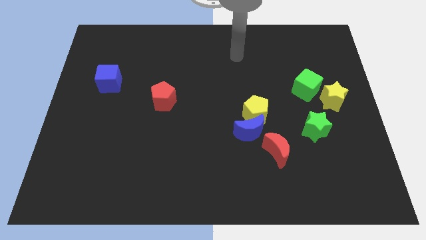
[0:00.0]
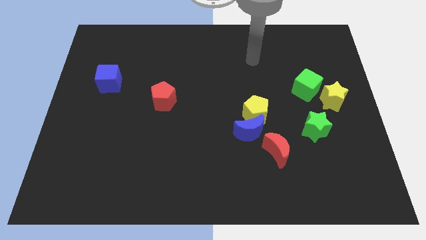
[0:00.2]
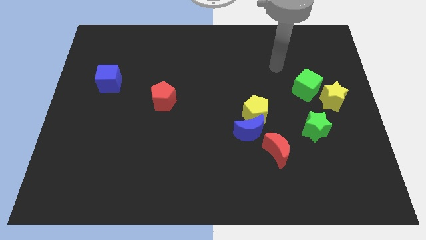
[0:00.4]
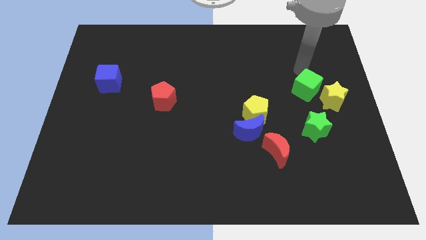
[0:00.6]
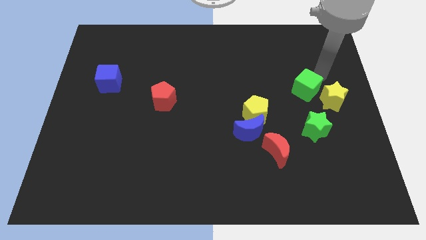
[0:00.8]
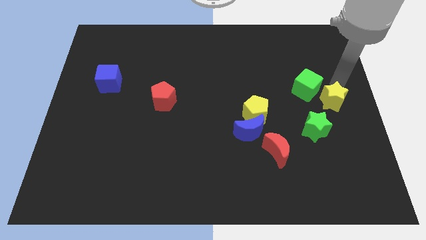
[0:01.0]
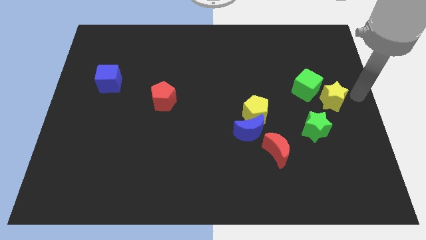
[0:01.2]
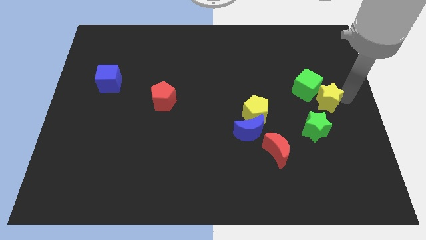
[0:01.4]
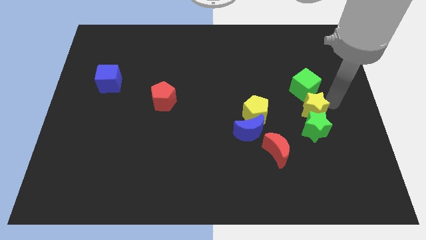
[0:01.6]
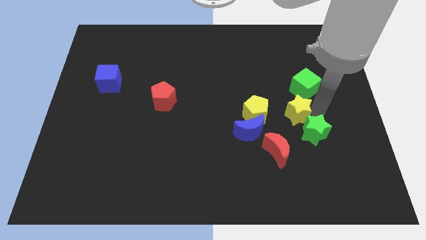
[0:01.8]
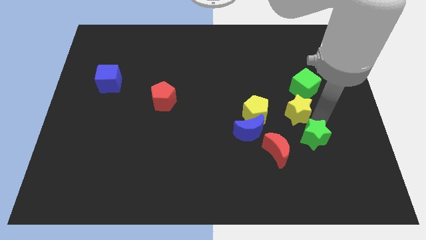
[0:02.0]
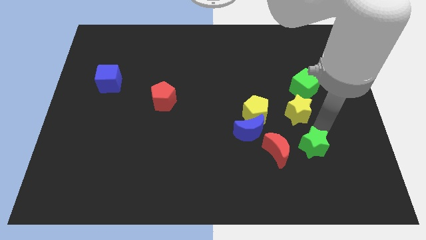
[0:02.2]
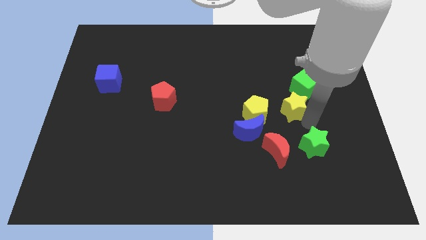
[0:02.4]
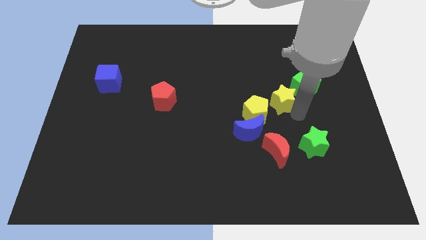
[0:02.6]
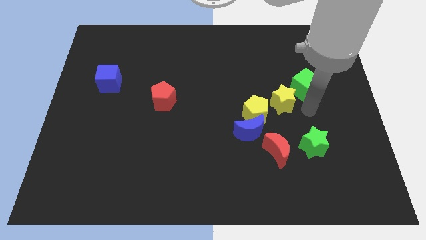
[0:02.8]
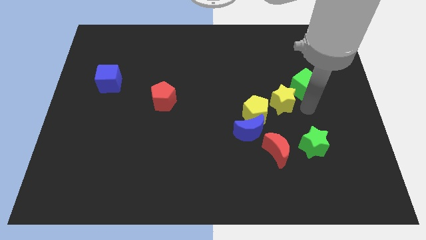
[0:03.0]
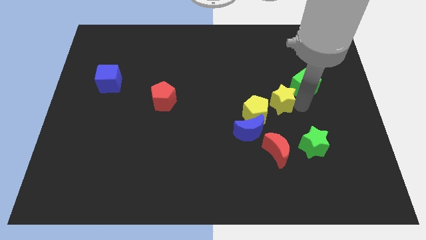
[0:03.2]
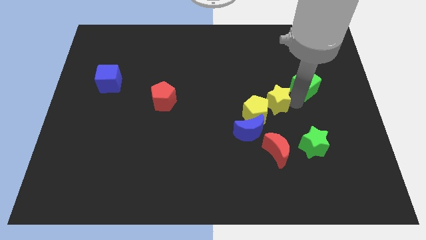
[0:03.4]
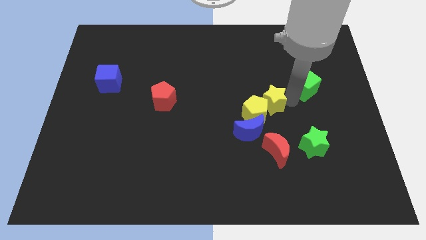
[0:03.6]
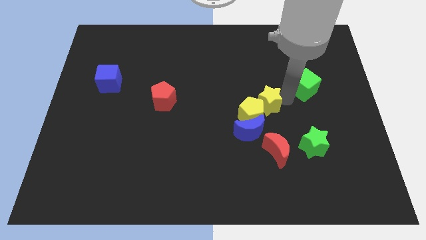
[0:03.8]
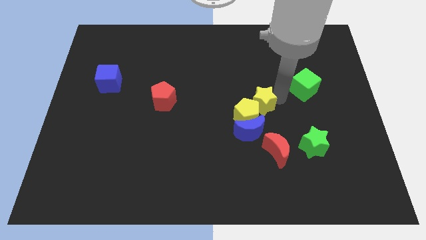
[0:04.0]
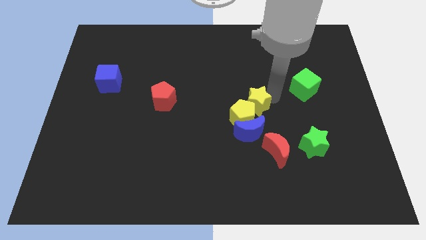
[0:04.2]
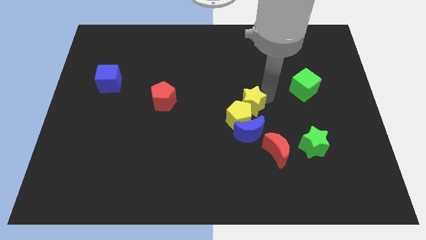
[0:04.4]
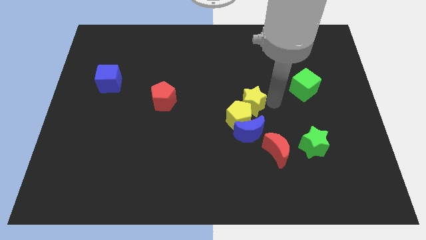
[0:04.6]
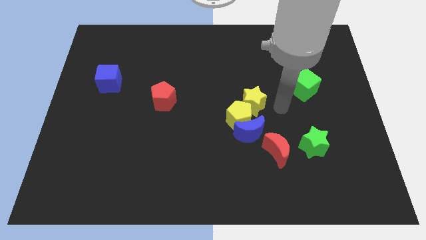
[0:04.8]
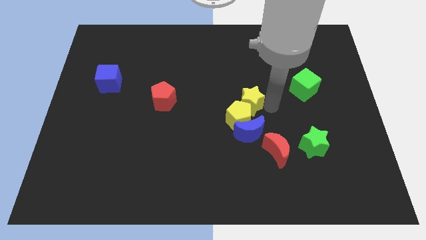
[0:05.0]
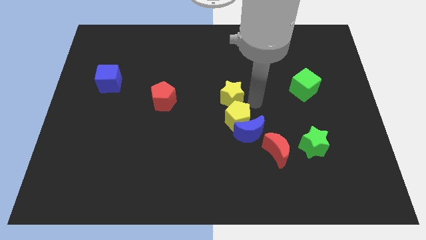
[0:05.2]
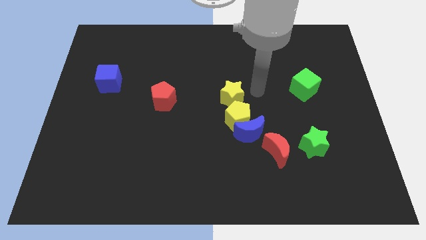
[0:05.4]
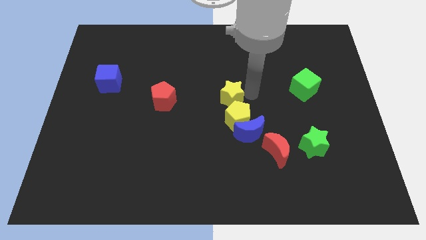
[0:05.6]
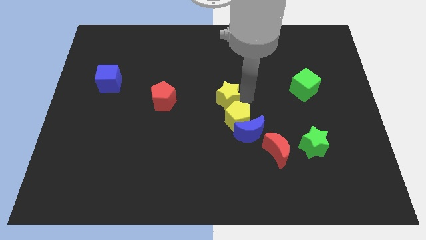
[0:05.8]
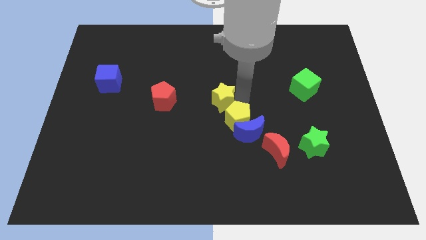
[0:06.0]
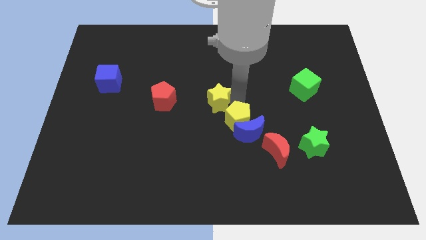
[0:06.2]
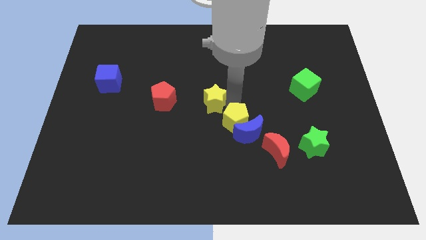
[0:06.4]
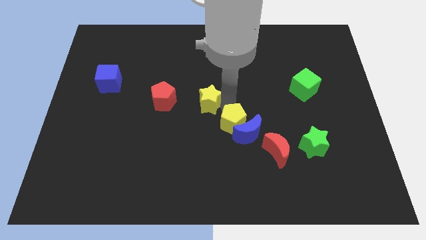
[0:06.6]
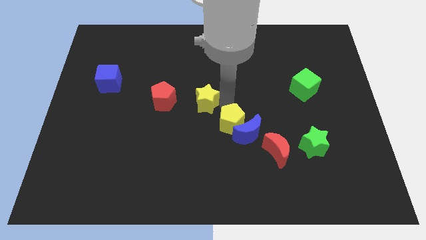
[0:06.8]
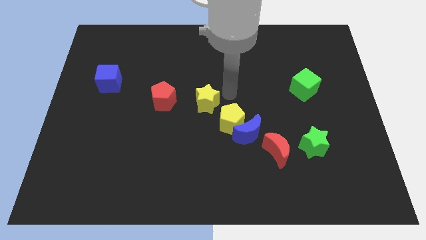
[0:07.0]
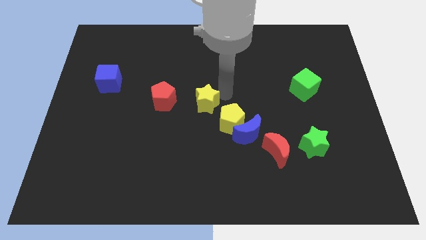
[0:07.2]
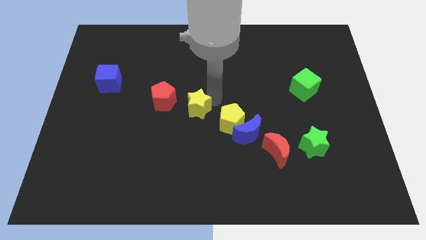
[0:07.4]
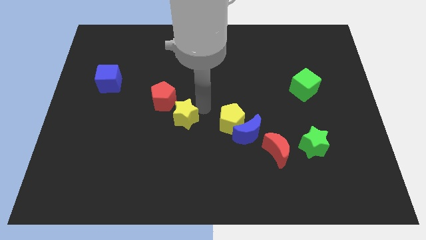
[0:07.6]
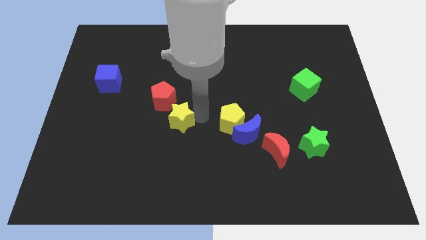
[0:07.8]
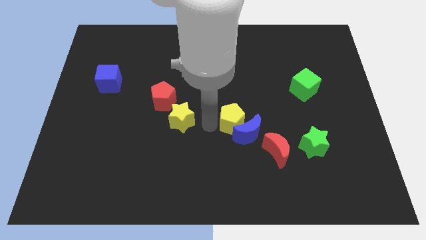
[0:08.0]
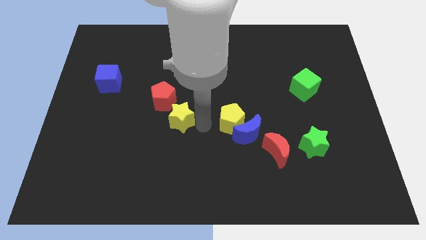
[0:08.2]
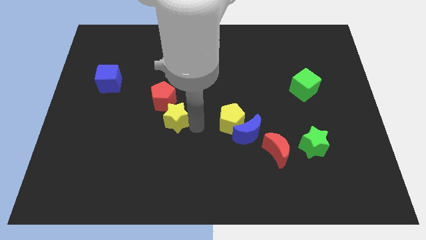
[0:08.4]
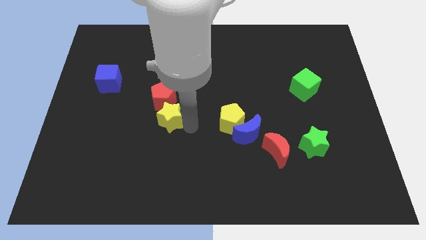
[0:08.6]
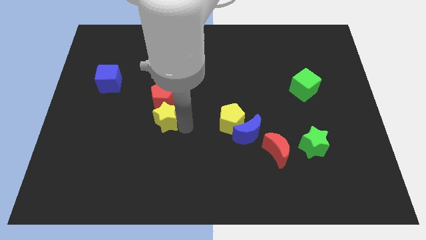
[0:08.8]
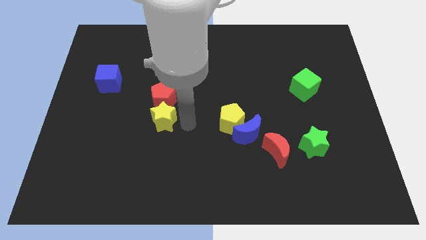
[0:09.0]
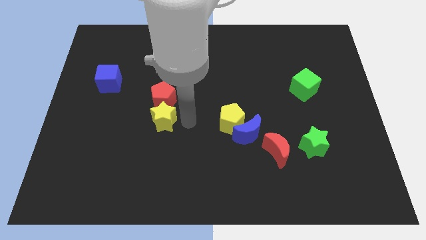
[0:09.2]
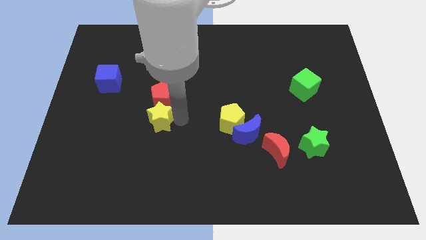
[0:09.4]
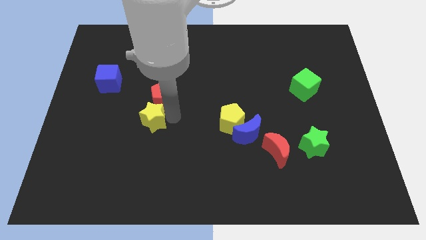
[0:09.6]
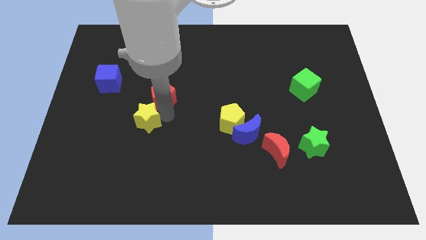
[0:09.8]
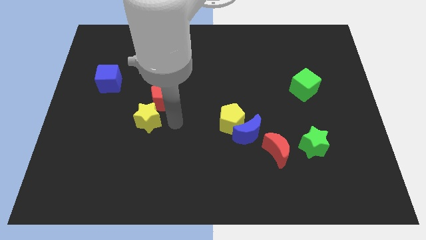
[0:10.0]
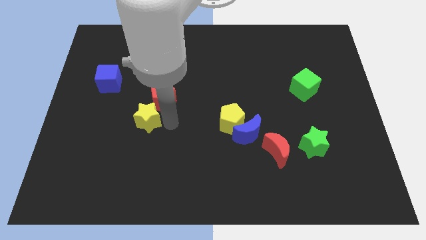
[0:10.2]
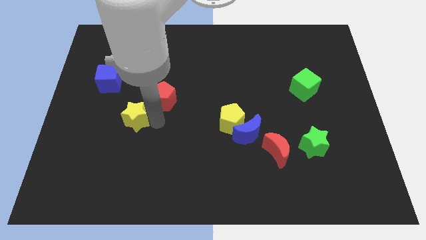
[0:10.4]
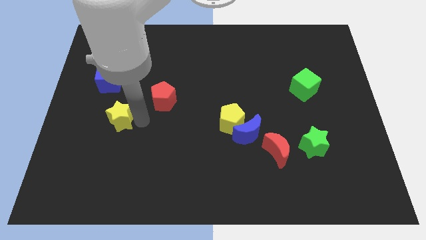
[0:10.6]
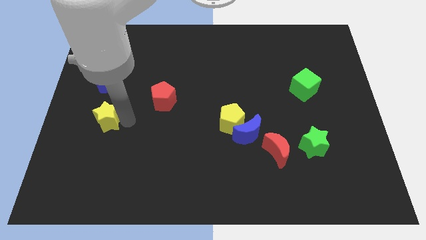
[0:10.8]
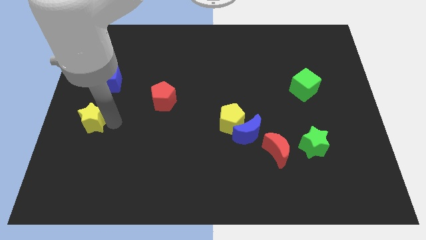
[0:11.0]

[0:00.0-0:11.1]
put the yellow star to the left side

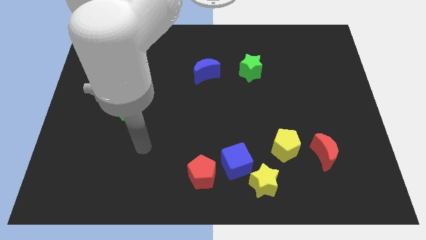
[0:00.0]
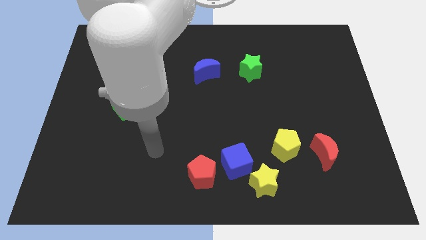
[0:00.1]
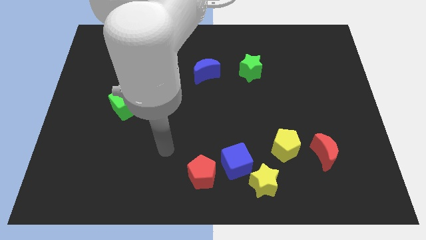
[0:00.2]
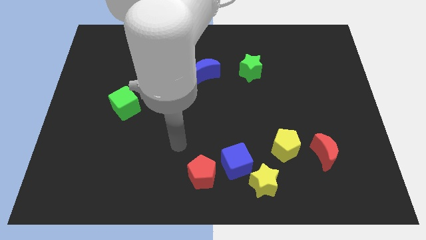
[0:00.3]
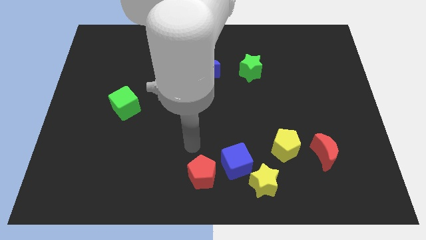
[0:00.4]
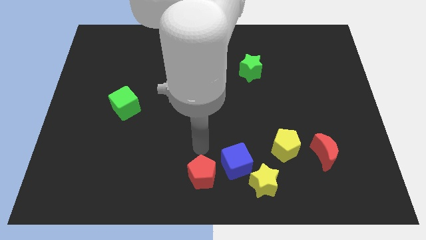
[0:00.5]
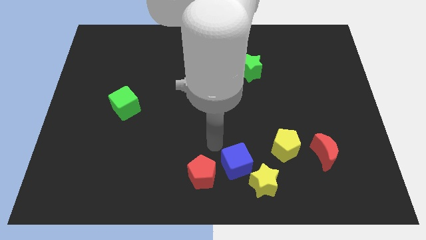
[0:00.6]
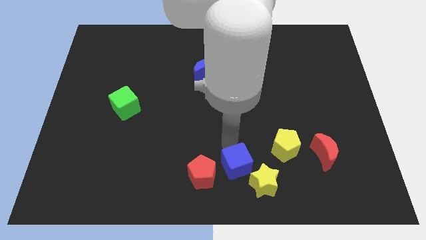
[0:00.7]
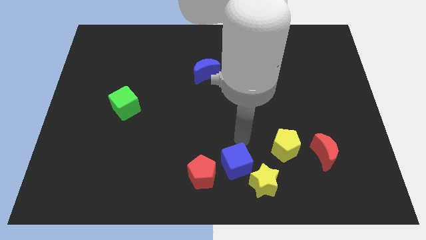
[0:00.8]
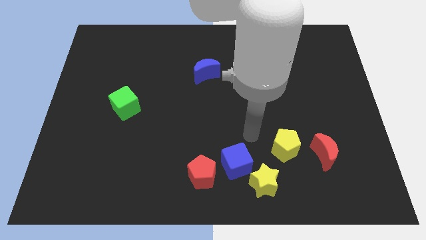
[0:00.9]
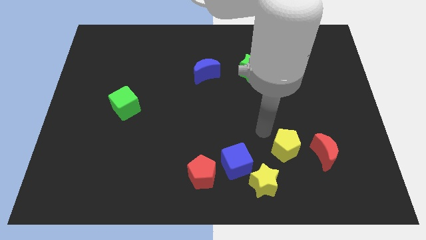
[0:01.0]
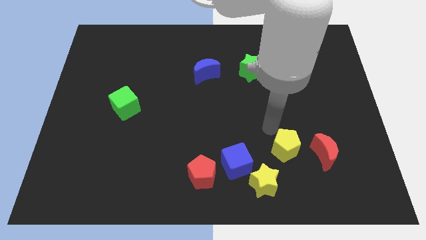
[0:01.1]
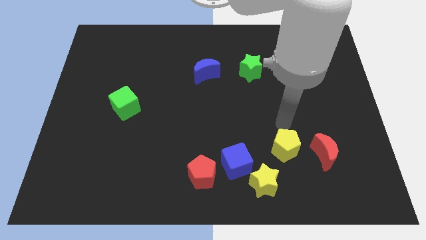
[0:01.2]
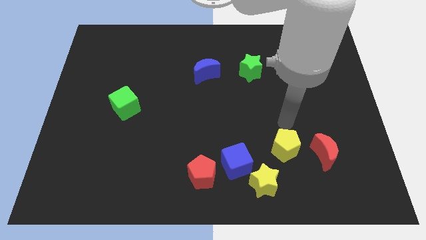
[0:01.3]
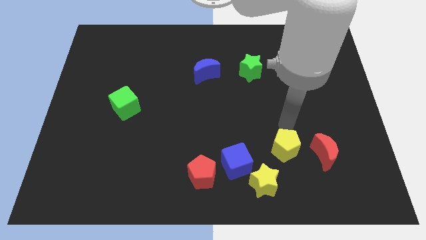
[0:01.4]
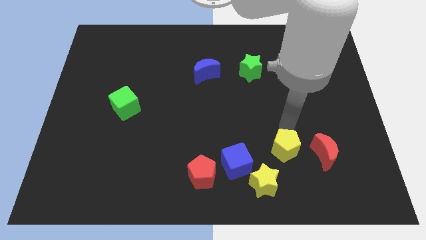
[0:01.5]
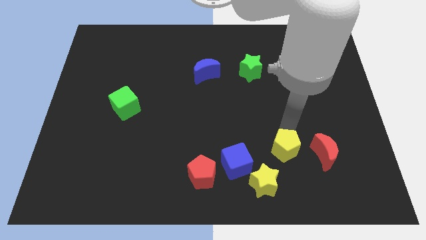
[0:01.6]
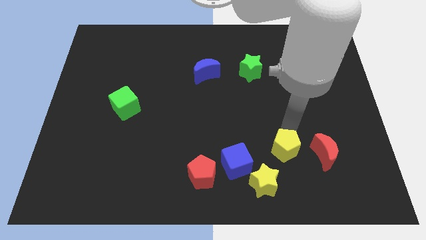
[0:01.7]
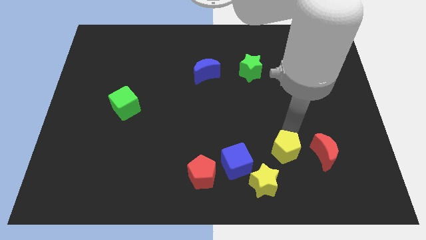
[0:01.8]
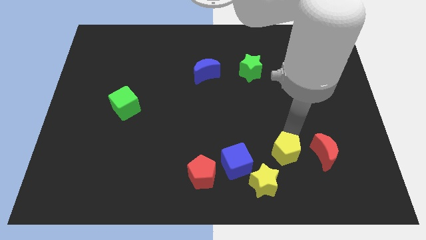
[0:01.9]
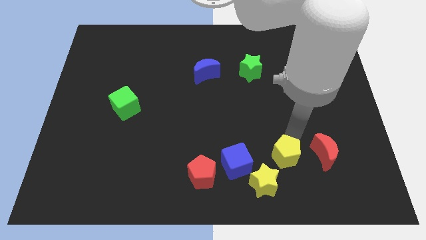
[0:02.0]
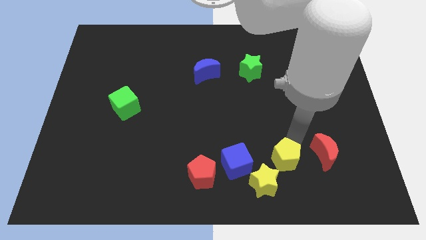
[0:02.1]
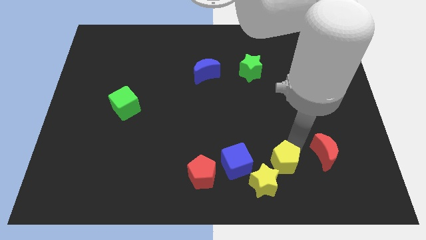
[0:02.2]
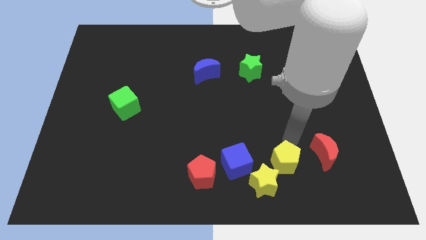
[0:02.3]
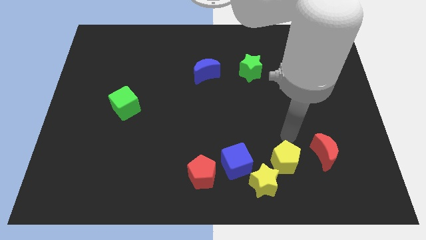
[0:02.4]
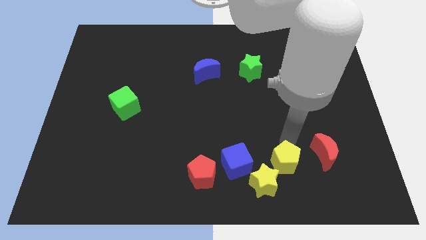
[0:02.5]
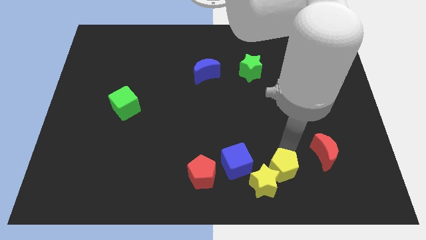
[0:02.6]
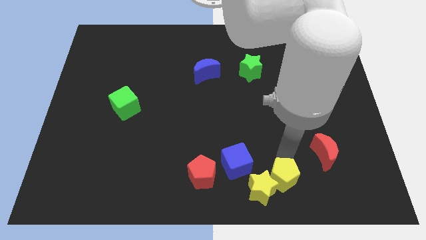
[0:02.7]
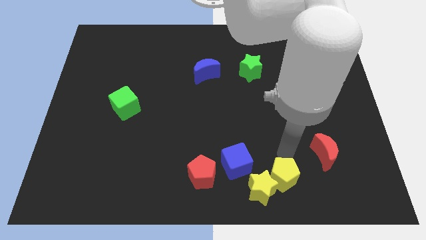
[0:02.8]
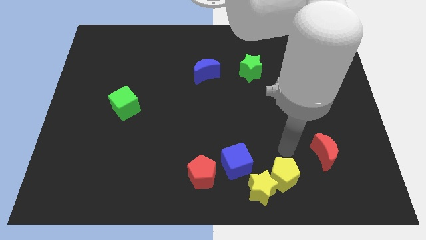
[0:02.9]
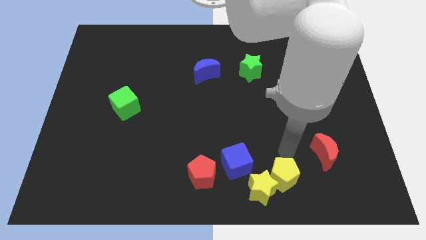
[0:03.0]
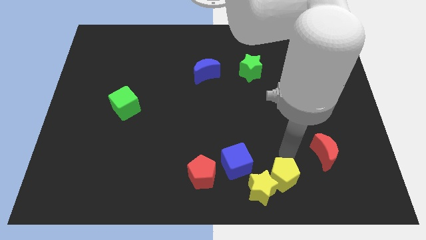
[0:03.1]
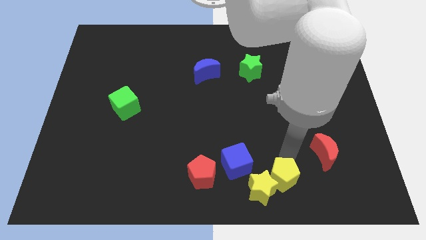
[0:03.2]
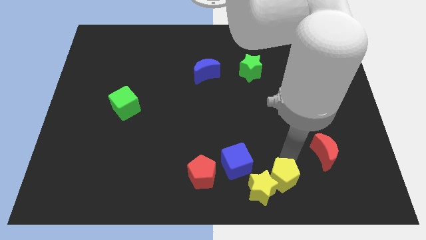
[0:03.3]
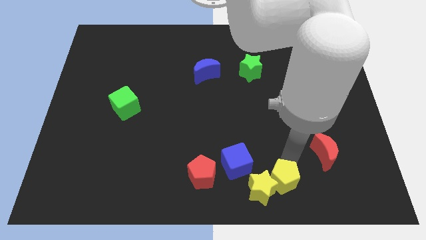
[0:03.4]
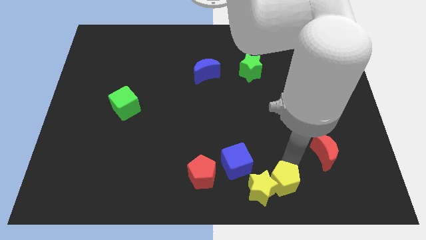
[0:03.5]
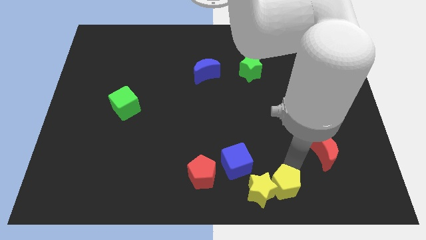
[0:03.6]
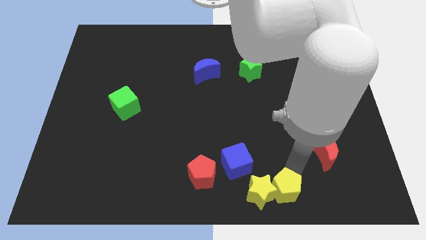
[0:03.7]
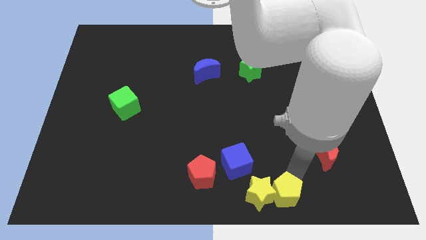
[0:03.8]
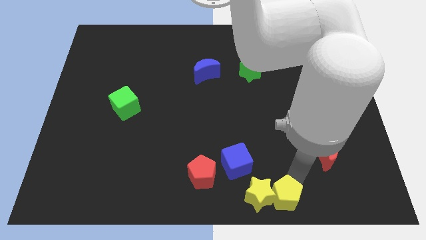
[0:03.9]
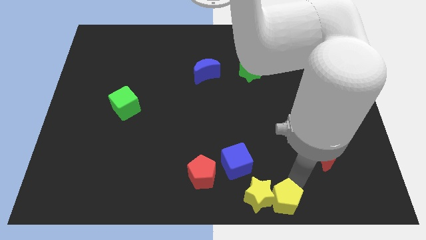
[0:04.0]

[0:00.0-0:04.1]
move the yellow pentagon to the bottom side
